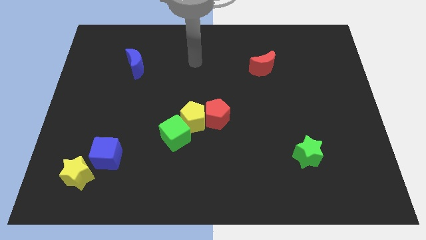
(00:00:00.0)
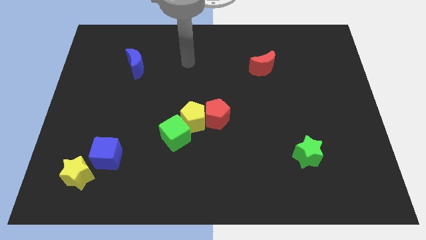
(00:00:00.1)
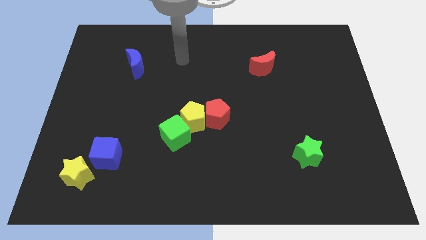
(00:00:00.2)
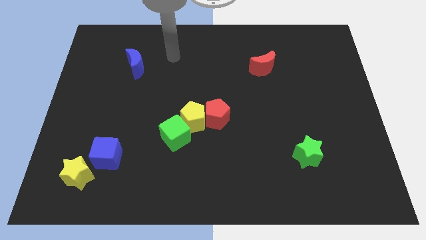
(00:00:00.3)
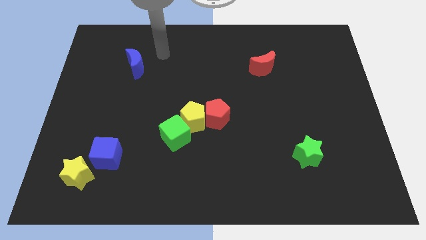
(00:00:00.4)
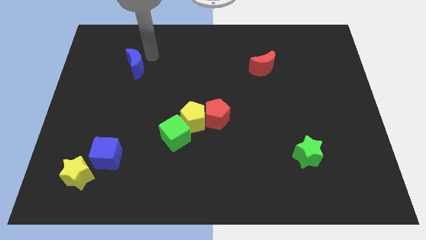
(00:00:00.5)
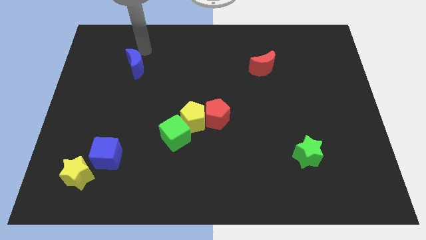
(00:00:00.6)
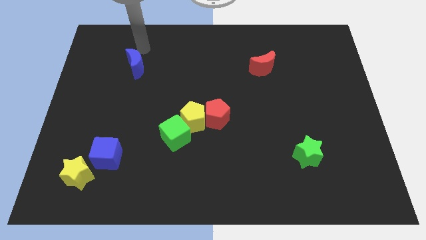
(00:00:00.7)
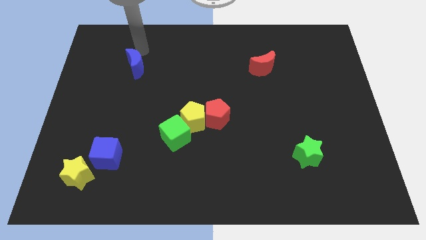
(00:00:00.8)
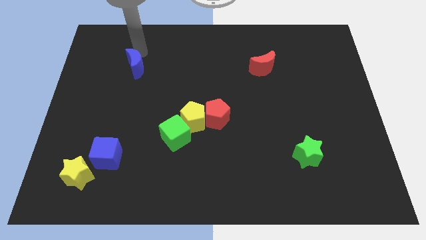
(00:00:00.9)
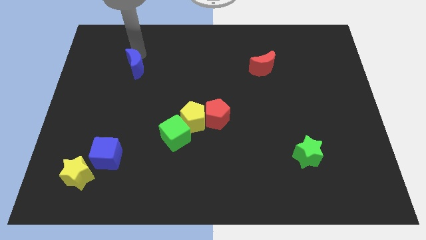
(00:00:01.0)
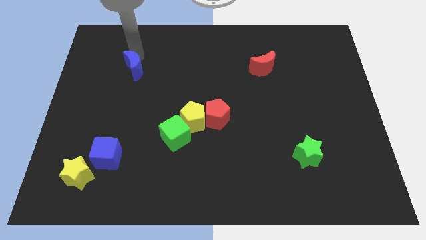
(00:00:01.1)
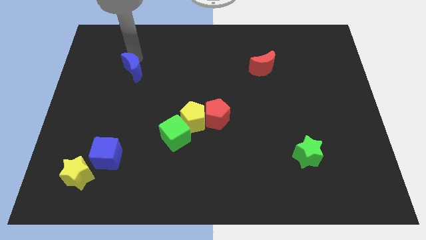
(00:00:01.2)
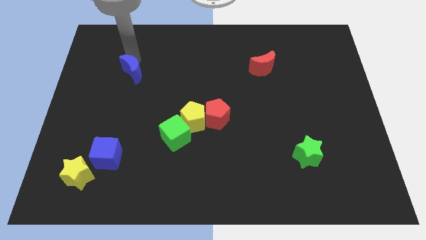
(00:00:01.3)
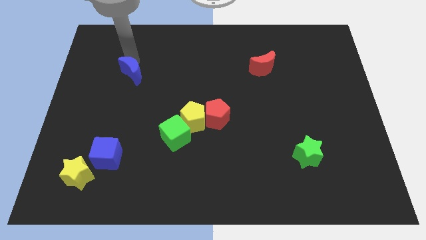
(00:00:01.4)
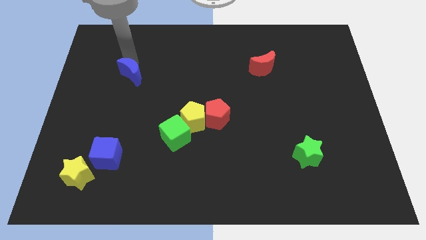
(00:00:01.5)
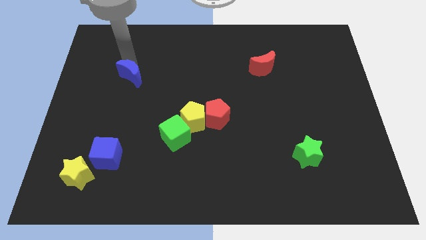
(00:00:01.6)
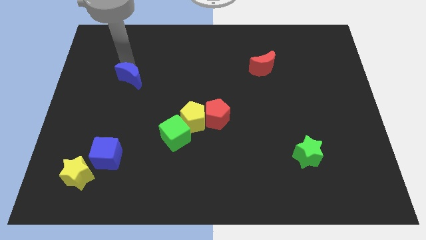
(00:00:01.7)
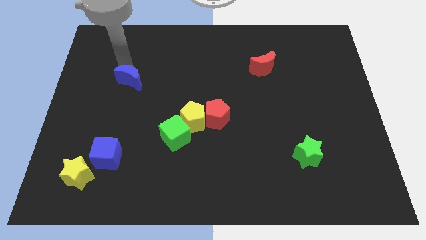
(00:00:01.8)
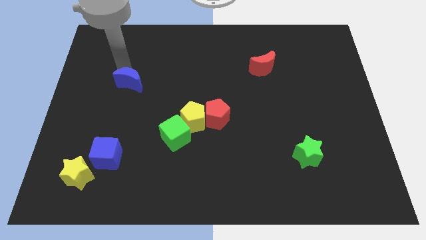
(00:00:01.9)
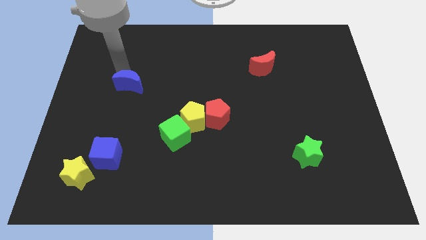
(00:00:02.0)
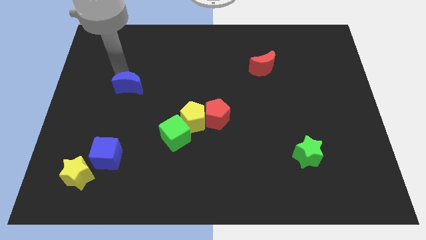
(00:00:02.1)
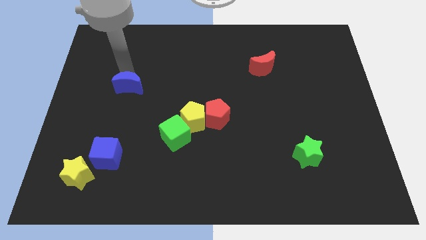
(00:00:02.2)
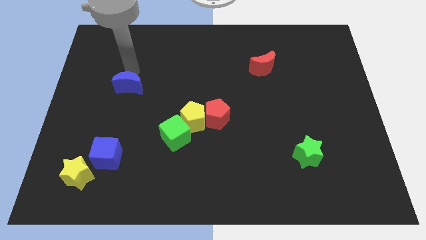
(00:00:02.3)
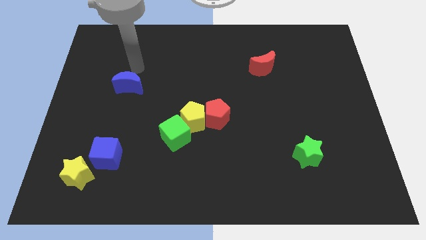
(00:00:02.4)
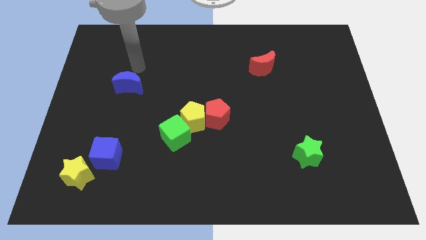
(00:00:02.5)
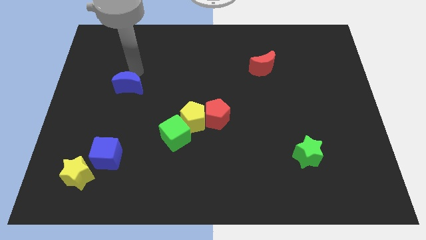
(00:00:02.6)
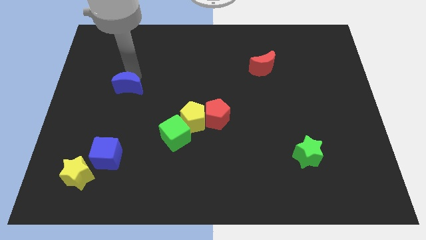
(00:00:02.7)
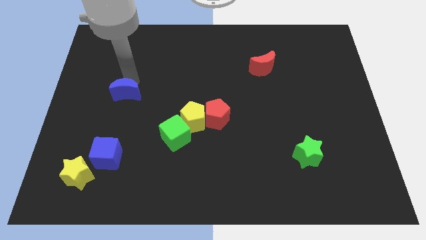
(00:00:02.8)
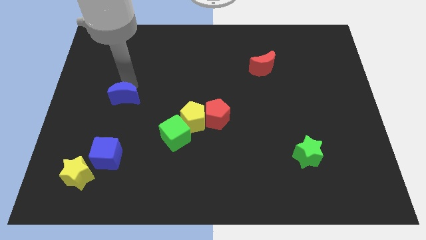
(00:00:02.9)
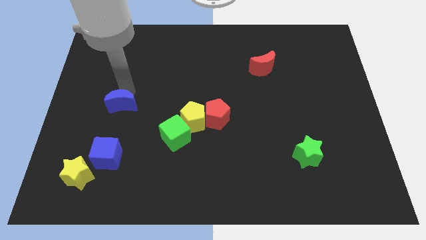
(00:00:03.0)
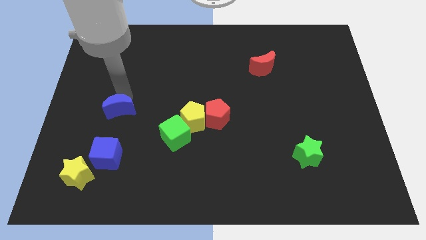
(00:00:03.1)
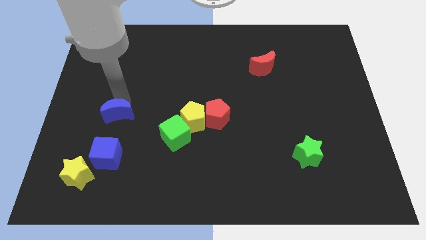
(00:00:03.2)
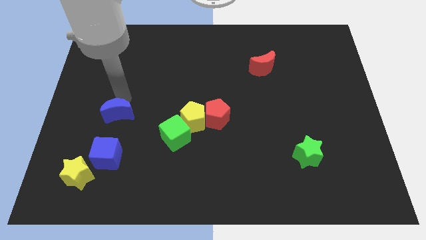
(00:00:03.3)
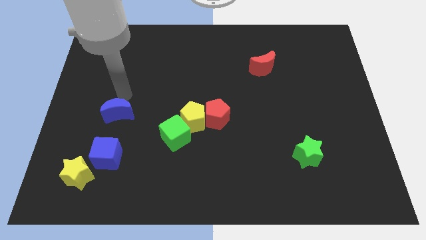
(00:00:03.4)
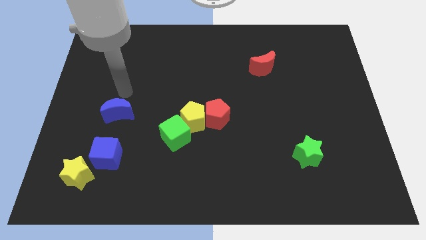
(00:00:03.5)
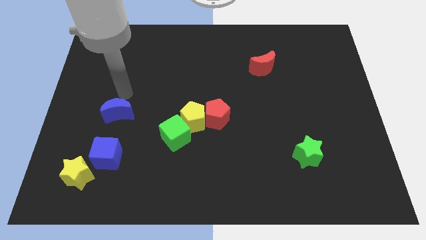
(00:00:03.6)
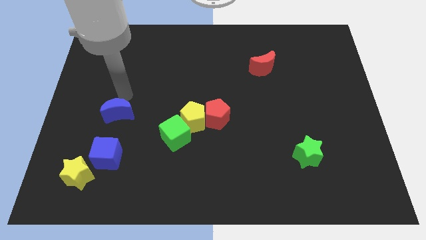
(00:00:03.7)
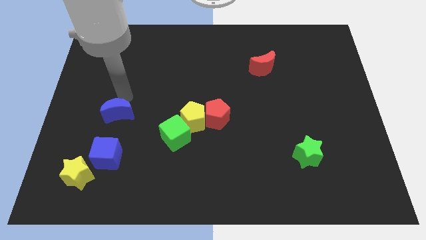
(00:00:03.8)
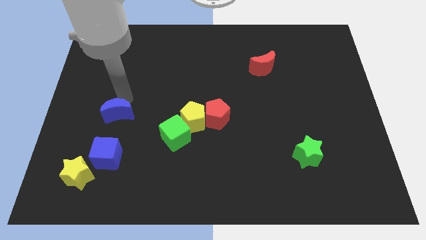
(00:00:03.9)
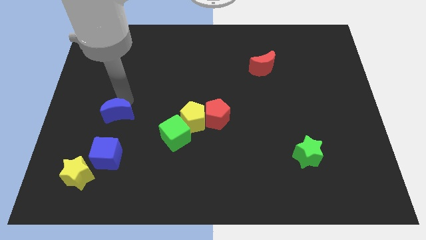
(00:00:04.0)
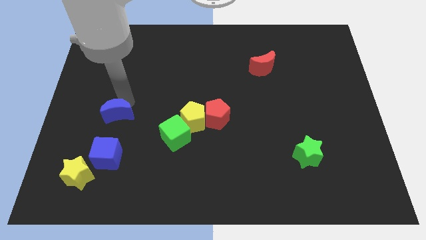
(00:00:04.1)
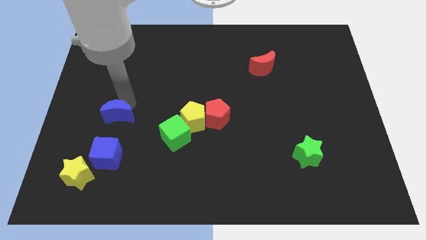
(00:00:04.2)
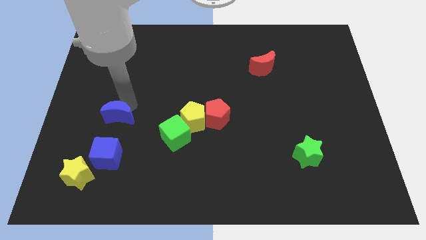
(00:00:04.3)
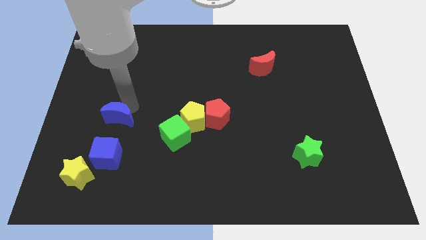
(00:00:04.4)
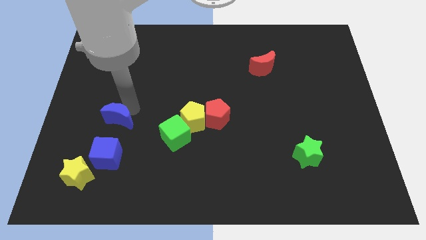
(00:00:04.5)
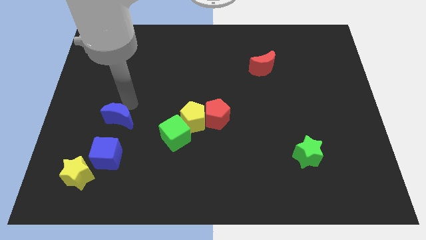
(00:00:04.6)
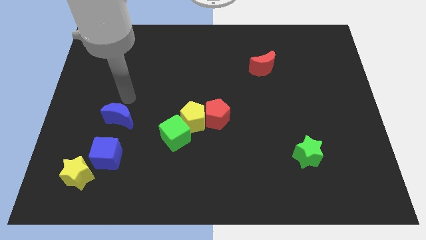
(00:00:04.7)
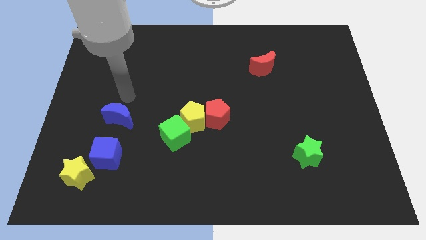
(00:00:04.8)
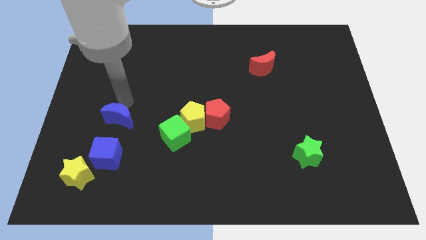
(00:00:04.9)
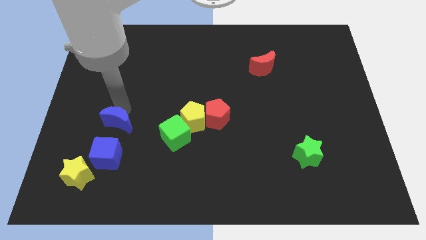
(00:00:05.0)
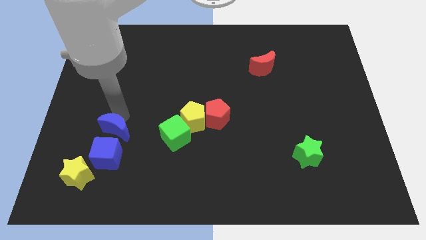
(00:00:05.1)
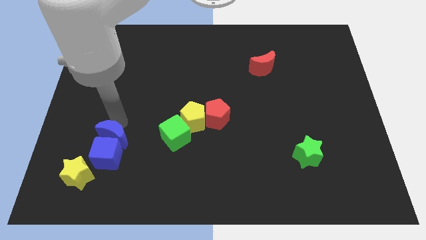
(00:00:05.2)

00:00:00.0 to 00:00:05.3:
move the blue moon towards the blue cube

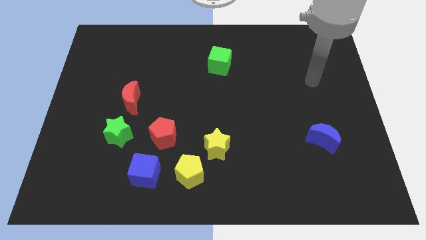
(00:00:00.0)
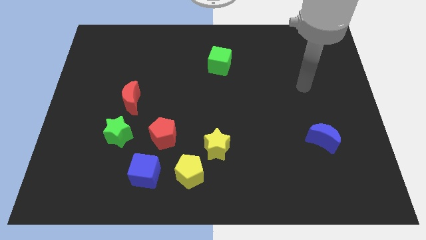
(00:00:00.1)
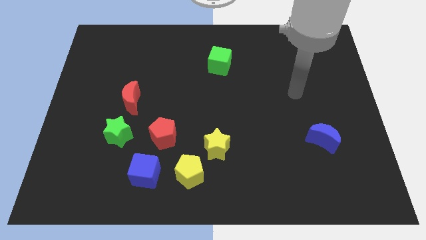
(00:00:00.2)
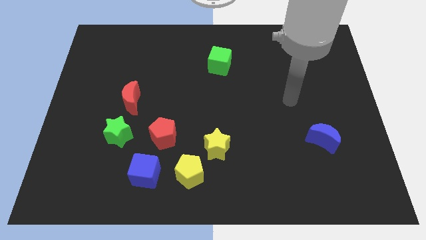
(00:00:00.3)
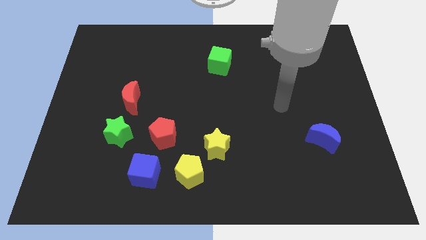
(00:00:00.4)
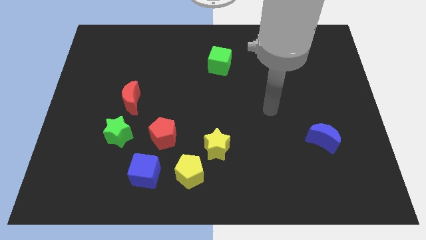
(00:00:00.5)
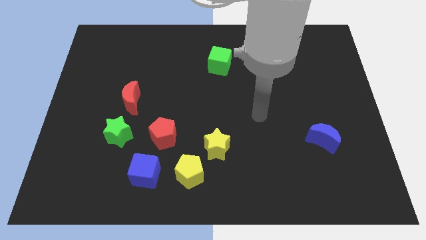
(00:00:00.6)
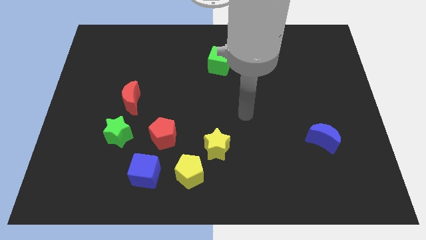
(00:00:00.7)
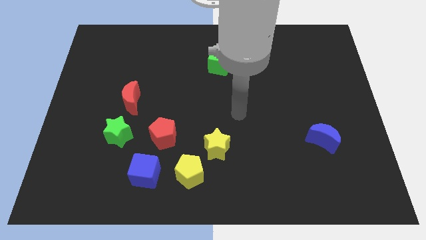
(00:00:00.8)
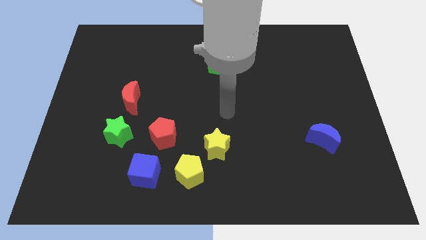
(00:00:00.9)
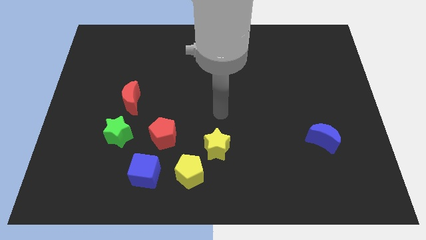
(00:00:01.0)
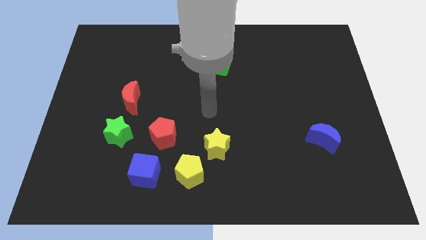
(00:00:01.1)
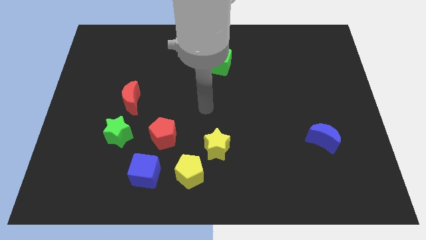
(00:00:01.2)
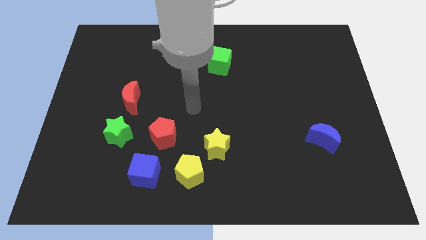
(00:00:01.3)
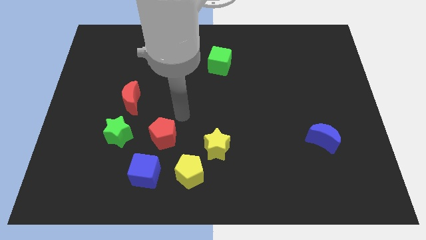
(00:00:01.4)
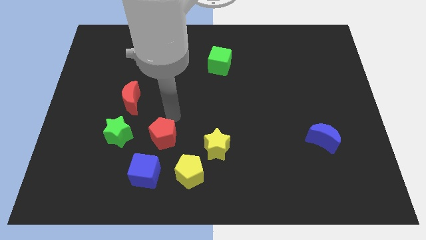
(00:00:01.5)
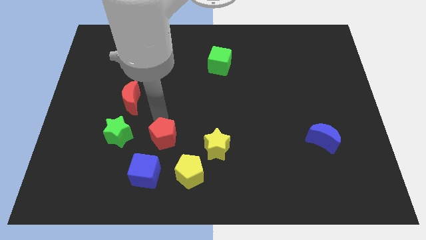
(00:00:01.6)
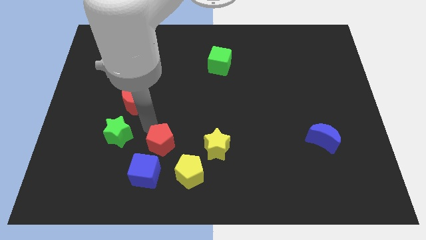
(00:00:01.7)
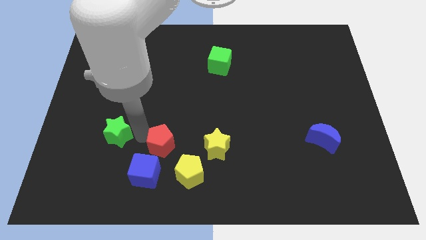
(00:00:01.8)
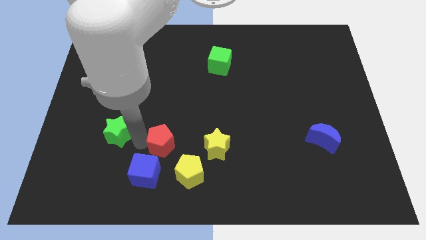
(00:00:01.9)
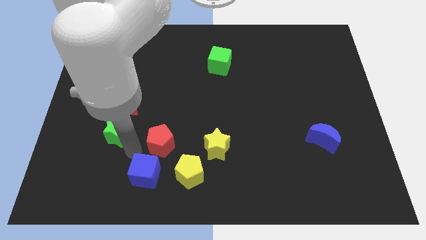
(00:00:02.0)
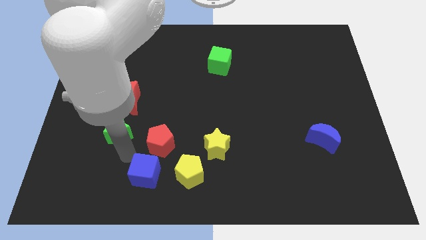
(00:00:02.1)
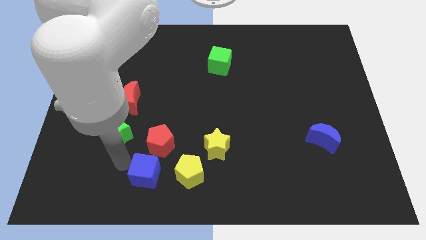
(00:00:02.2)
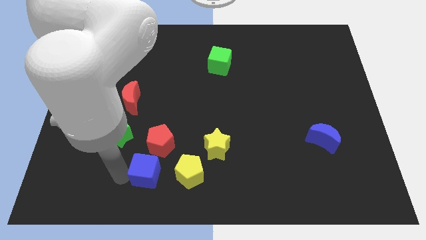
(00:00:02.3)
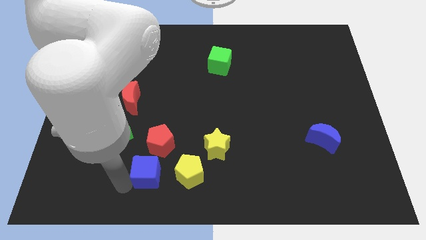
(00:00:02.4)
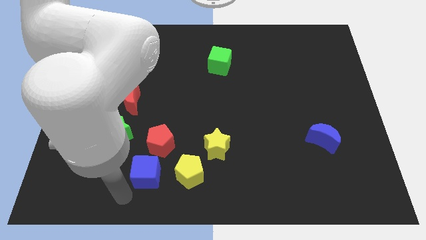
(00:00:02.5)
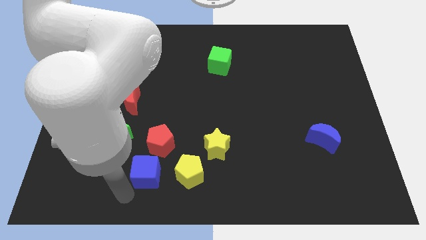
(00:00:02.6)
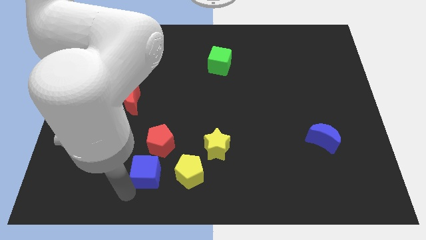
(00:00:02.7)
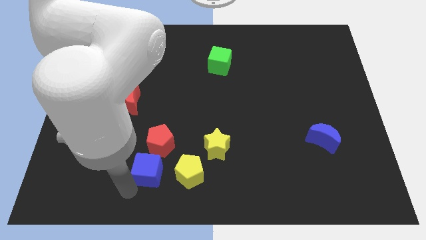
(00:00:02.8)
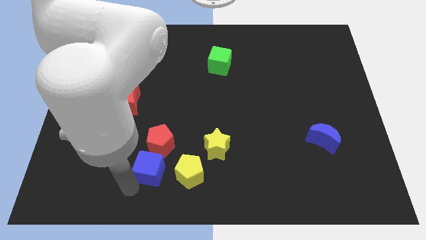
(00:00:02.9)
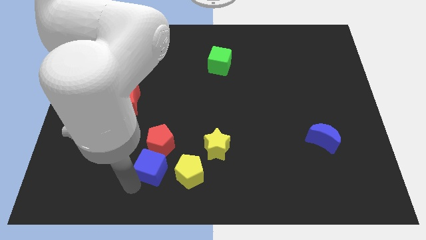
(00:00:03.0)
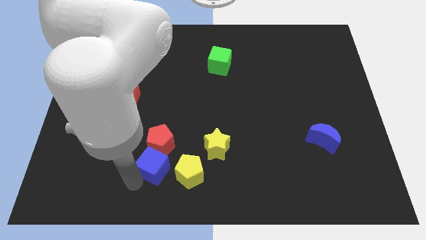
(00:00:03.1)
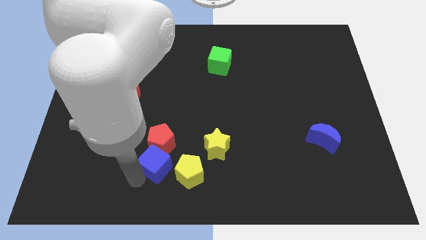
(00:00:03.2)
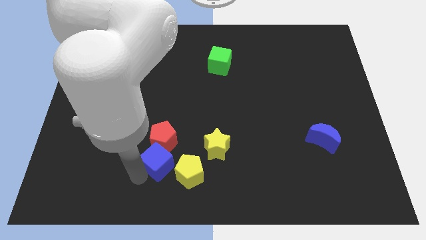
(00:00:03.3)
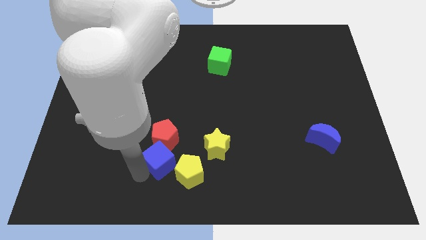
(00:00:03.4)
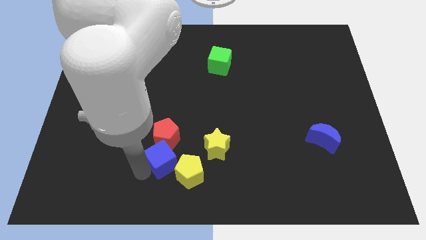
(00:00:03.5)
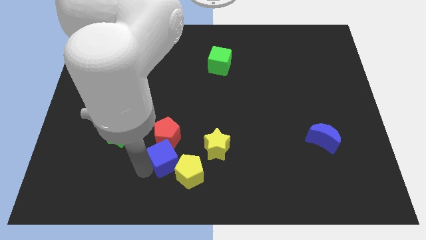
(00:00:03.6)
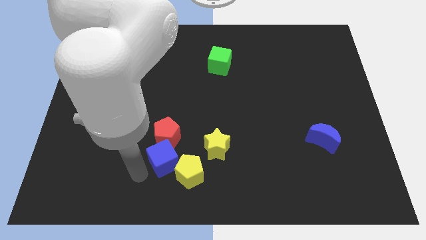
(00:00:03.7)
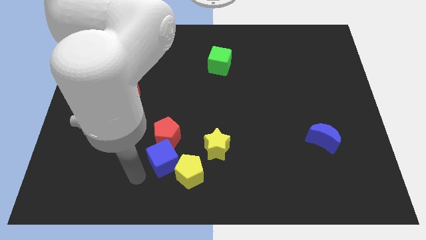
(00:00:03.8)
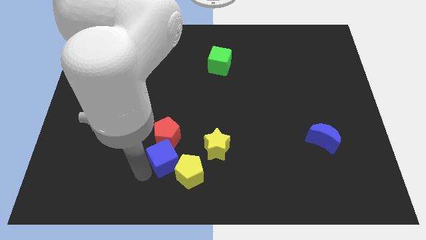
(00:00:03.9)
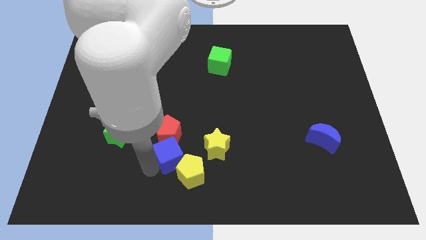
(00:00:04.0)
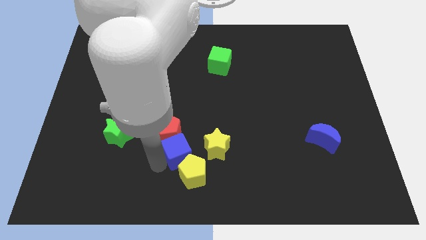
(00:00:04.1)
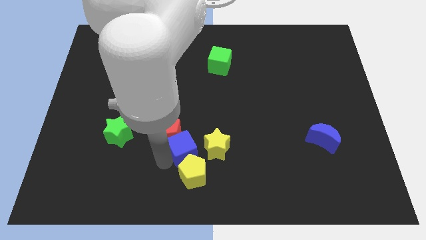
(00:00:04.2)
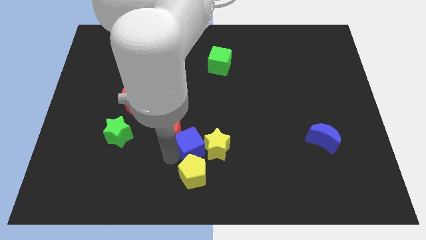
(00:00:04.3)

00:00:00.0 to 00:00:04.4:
put the blue cube to the yellow star
